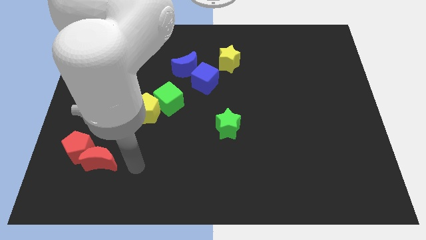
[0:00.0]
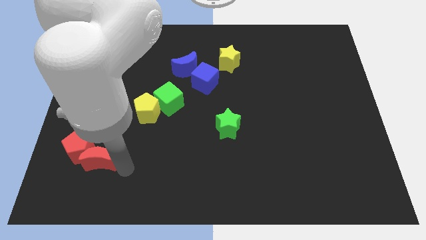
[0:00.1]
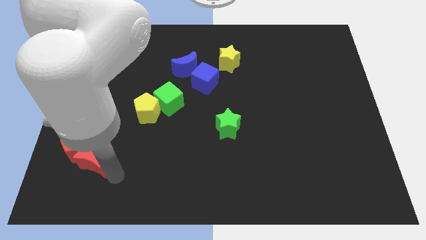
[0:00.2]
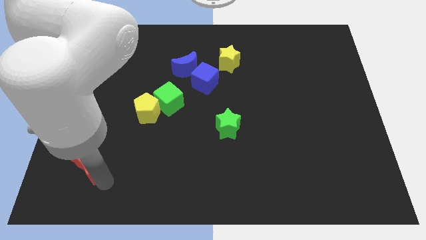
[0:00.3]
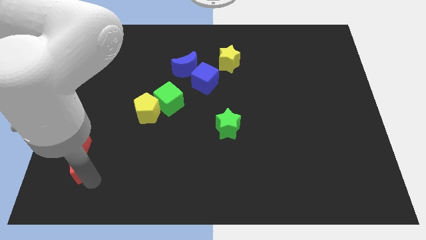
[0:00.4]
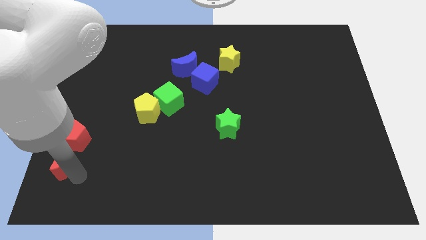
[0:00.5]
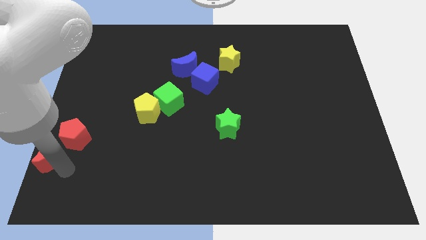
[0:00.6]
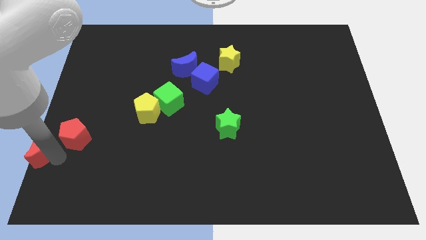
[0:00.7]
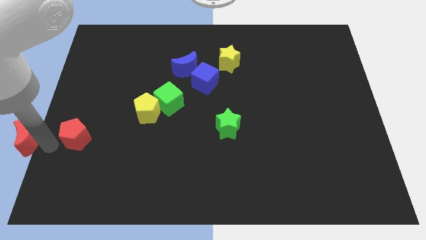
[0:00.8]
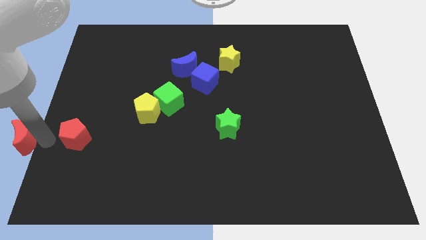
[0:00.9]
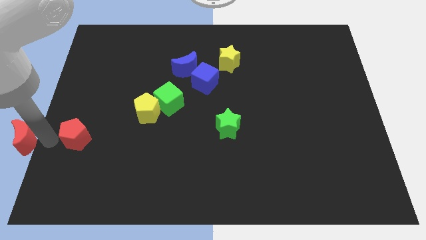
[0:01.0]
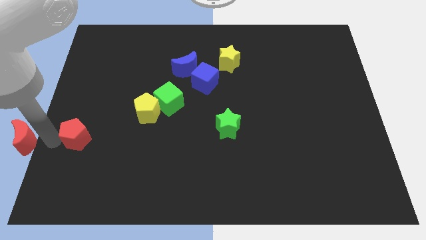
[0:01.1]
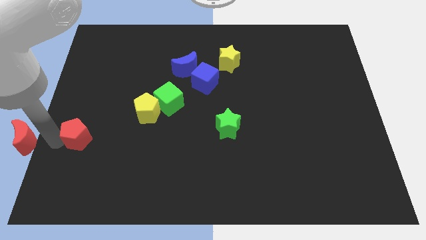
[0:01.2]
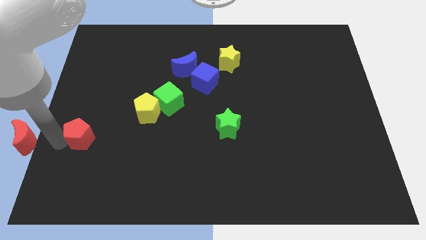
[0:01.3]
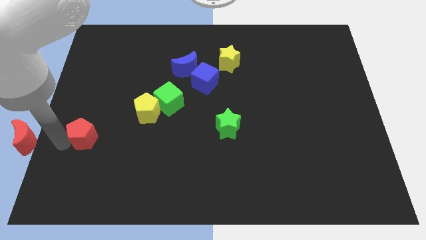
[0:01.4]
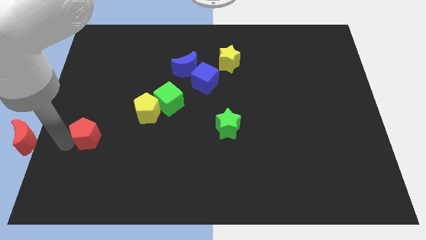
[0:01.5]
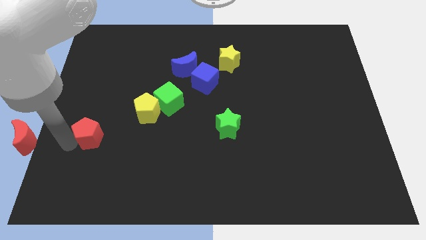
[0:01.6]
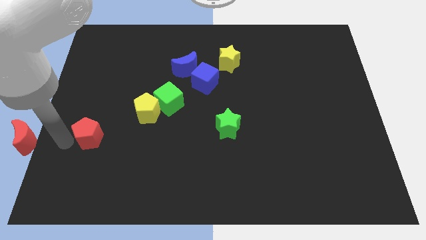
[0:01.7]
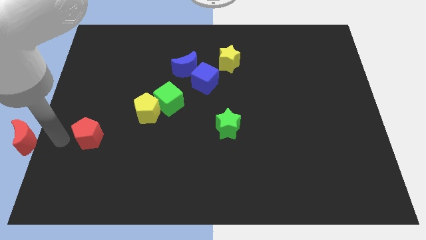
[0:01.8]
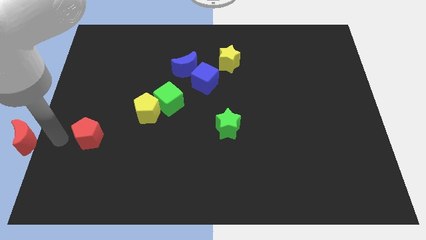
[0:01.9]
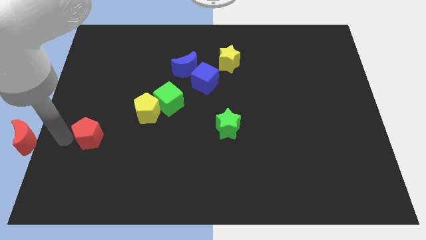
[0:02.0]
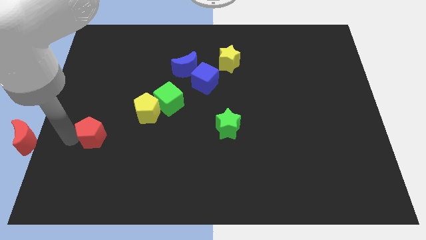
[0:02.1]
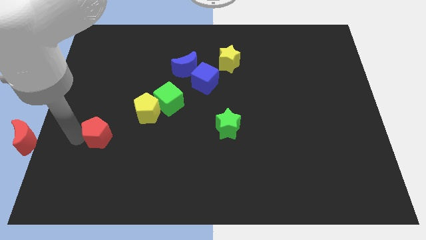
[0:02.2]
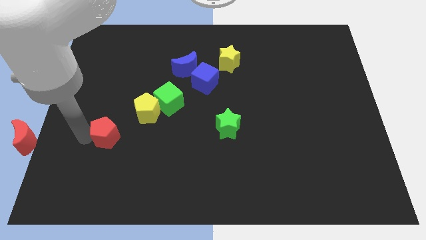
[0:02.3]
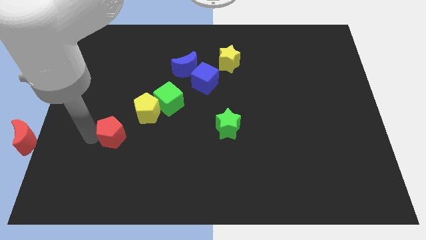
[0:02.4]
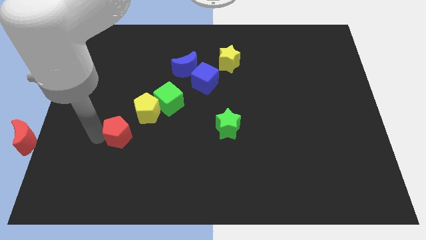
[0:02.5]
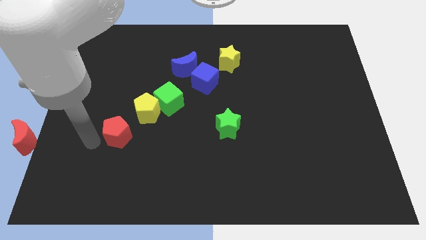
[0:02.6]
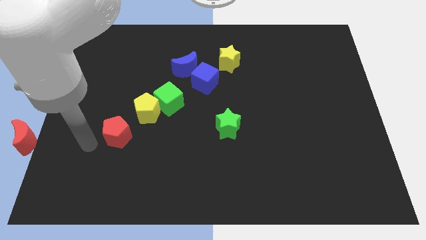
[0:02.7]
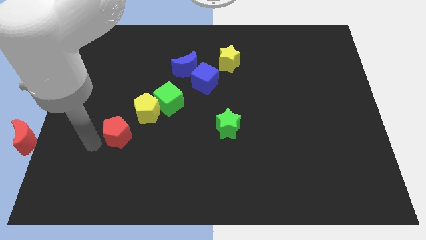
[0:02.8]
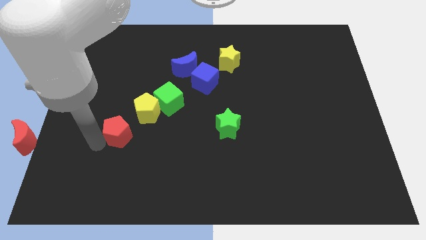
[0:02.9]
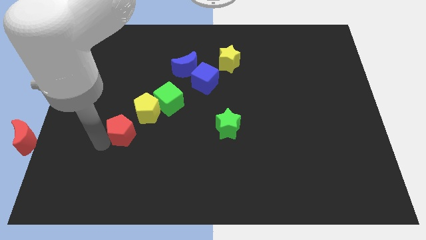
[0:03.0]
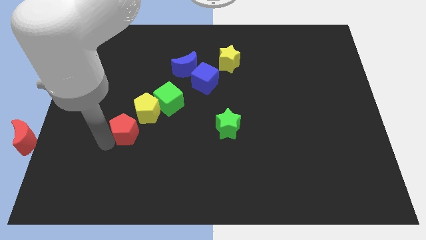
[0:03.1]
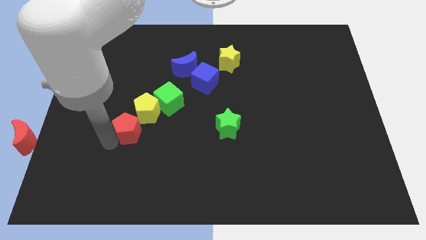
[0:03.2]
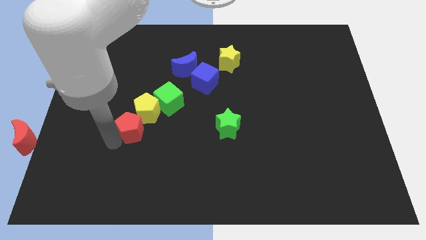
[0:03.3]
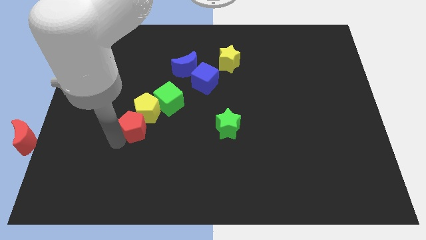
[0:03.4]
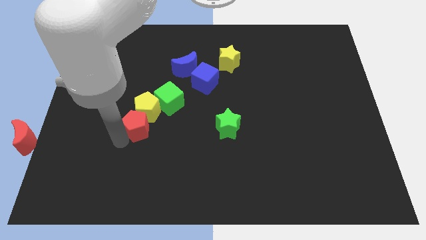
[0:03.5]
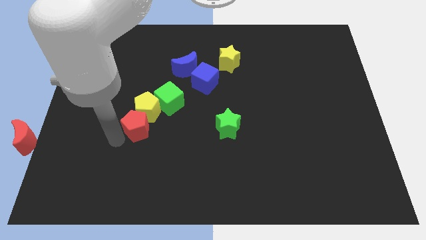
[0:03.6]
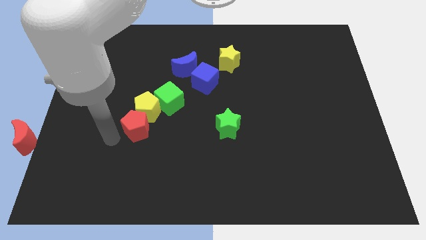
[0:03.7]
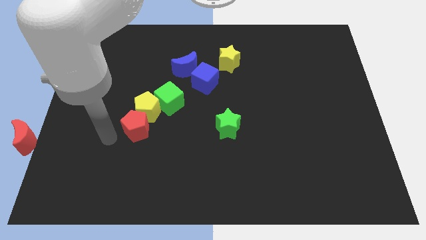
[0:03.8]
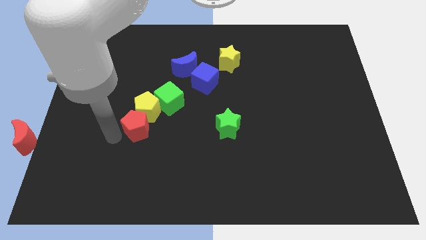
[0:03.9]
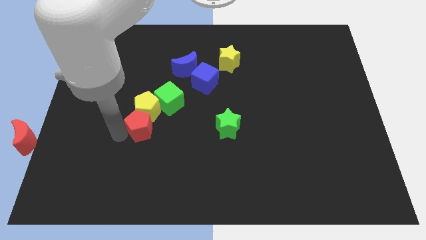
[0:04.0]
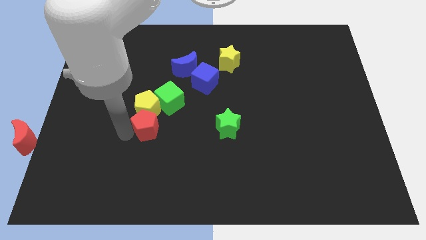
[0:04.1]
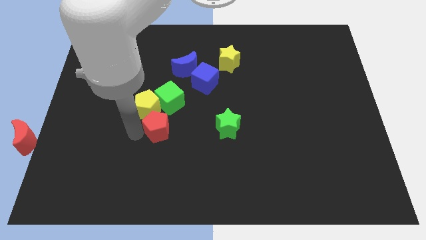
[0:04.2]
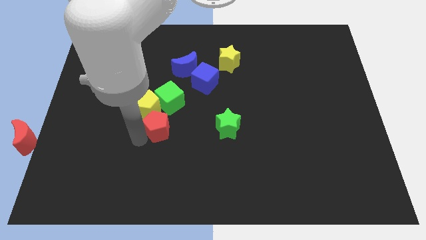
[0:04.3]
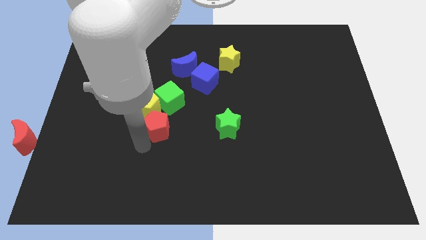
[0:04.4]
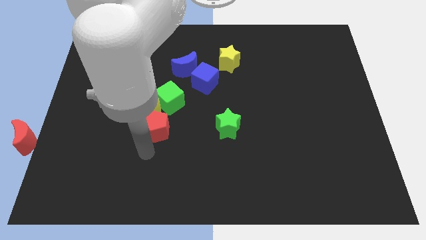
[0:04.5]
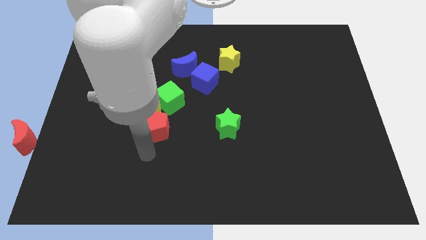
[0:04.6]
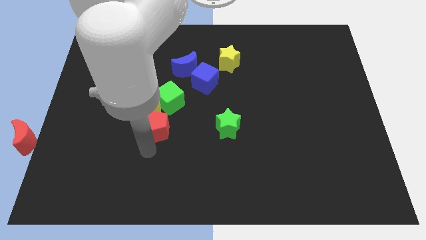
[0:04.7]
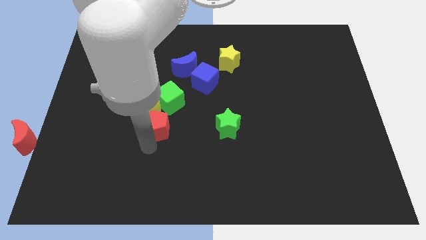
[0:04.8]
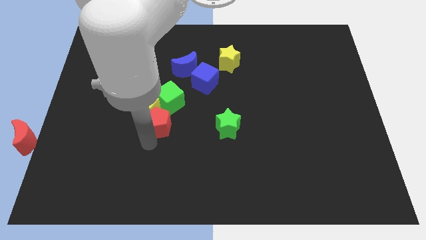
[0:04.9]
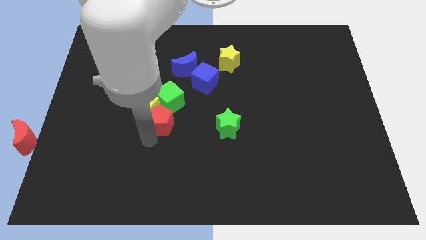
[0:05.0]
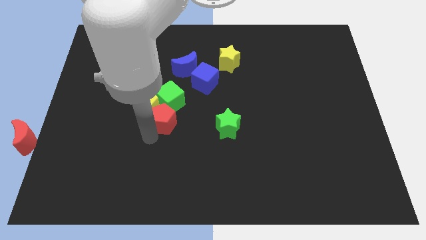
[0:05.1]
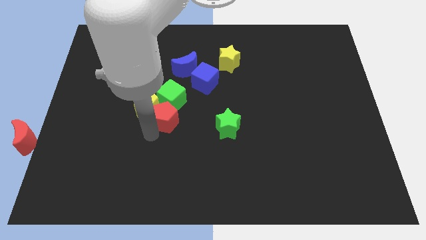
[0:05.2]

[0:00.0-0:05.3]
slide the red pentagon to the green cube

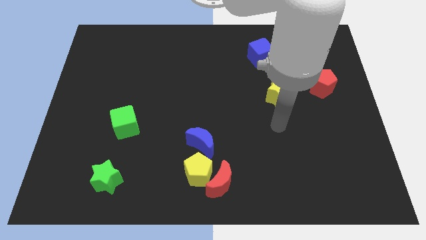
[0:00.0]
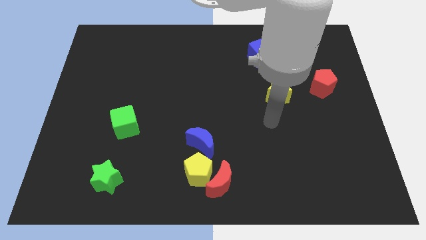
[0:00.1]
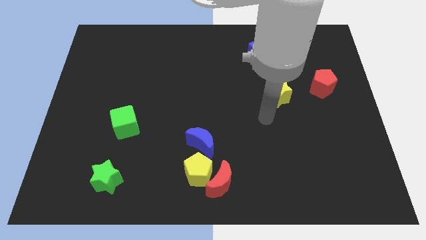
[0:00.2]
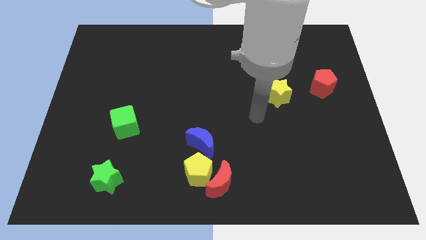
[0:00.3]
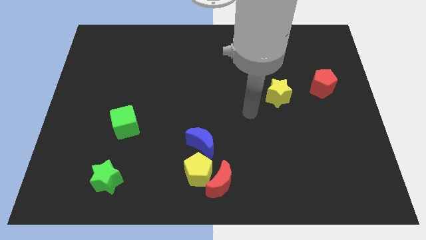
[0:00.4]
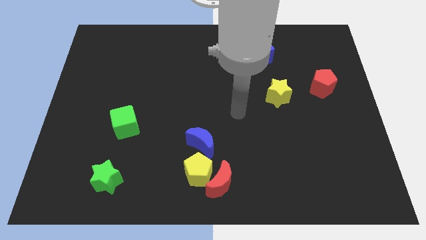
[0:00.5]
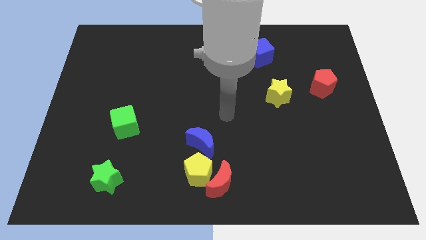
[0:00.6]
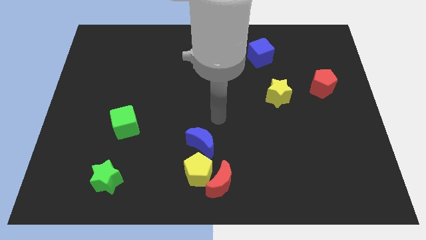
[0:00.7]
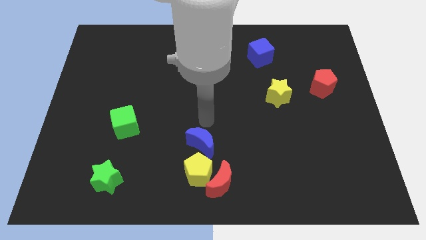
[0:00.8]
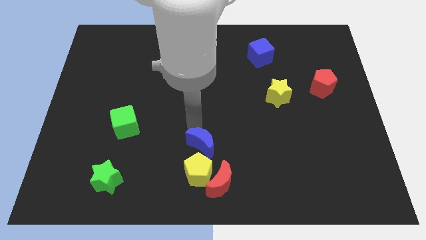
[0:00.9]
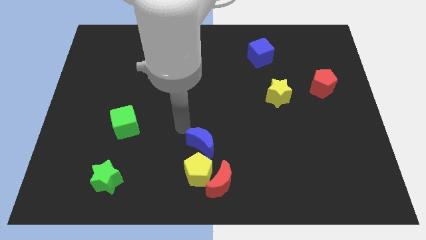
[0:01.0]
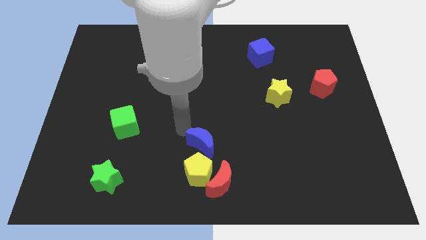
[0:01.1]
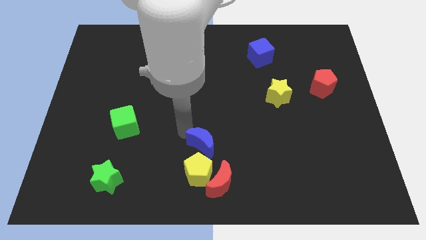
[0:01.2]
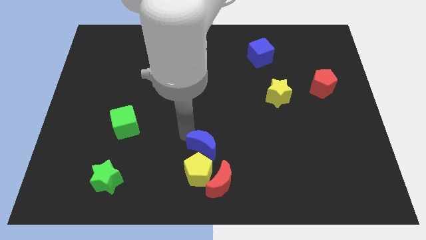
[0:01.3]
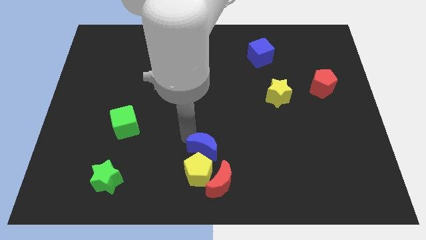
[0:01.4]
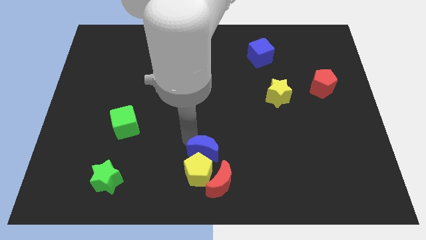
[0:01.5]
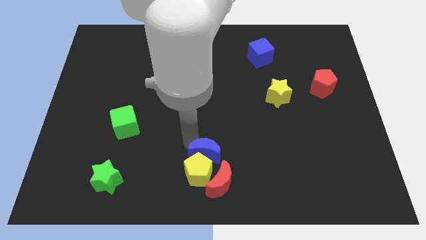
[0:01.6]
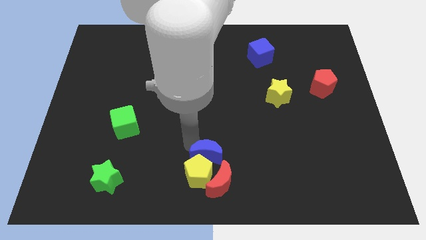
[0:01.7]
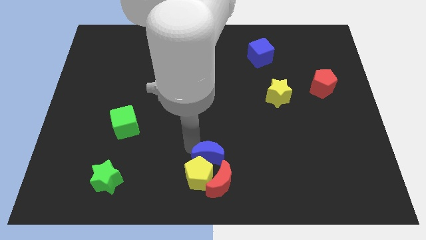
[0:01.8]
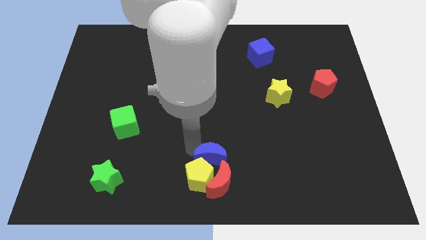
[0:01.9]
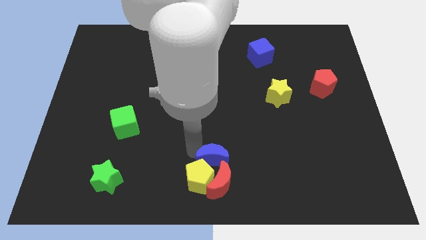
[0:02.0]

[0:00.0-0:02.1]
put the blue moon towards the red moon
